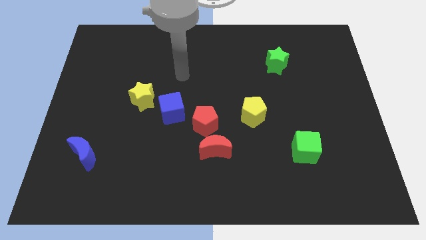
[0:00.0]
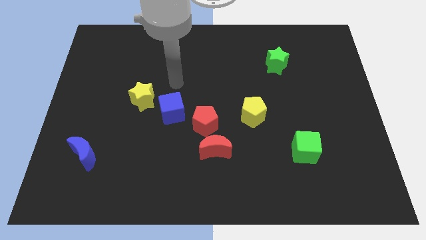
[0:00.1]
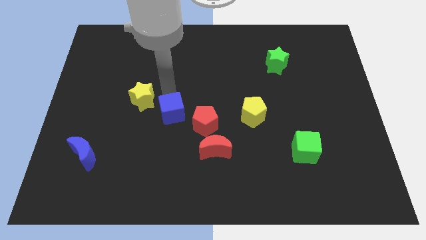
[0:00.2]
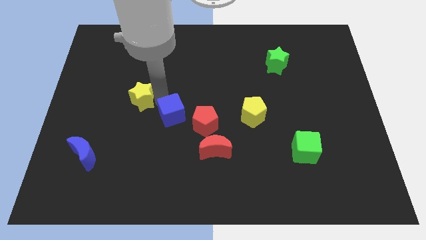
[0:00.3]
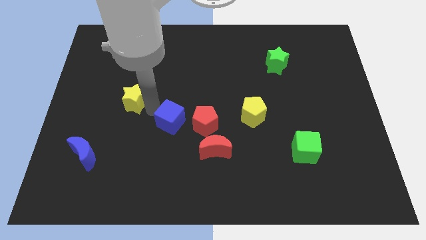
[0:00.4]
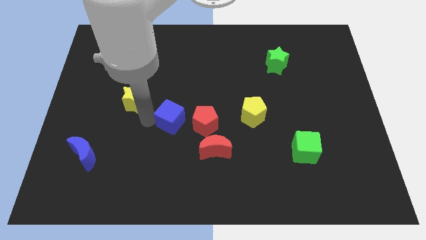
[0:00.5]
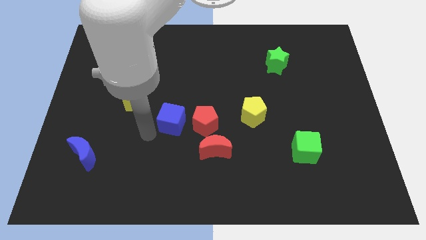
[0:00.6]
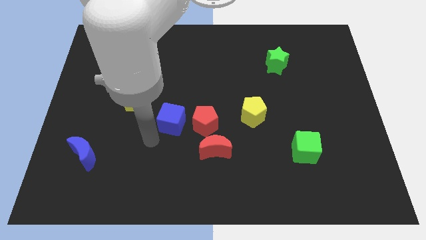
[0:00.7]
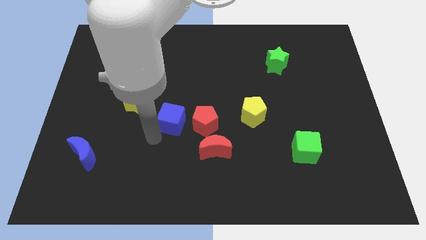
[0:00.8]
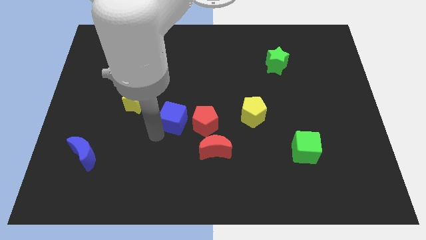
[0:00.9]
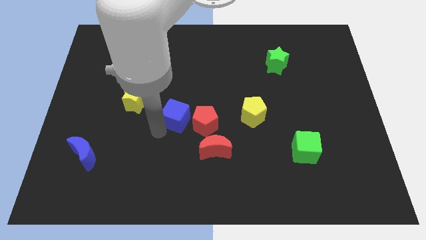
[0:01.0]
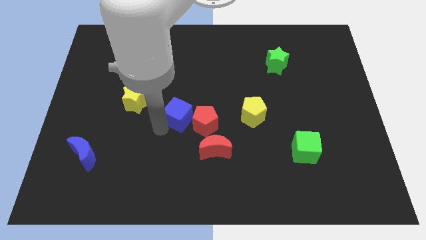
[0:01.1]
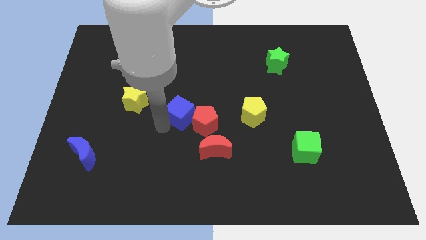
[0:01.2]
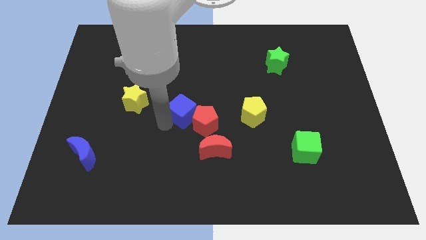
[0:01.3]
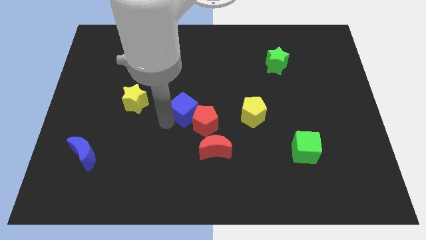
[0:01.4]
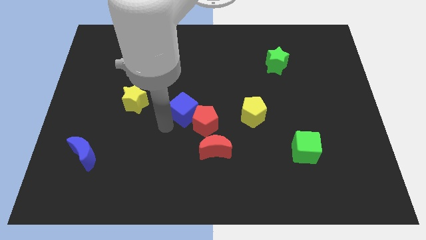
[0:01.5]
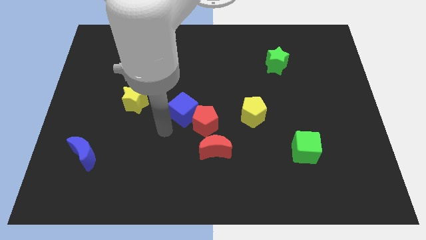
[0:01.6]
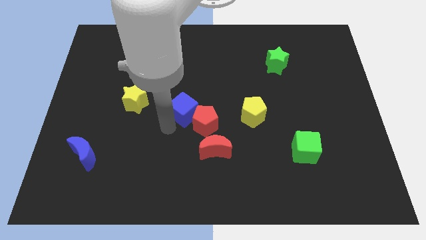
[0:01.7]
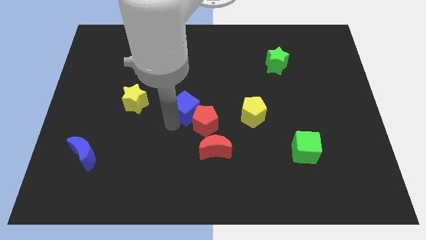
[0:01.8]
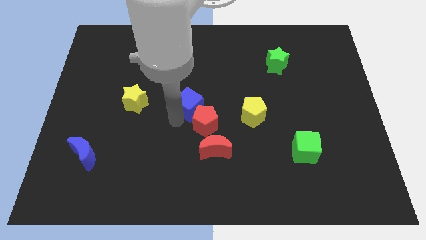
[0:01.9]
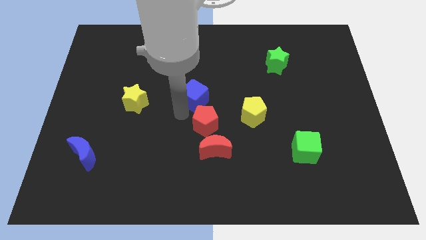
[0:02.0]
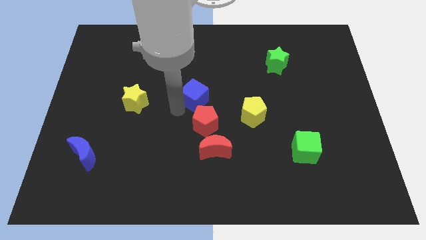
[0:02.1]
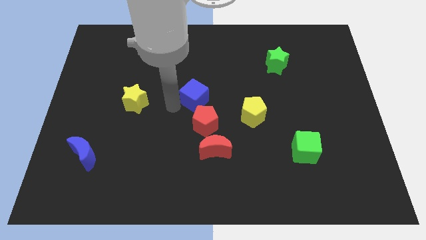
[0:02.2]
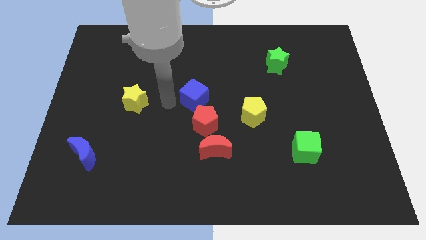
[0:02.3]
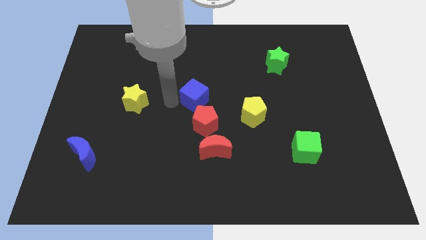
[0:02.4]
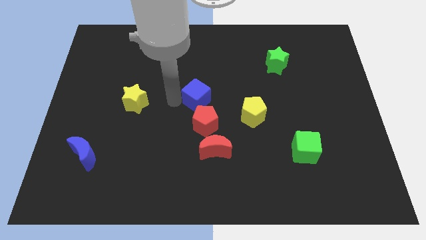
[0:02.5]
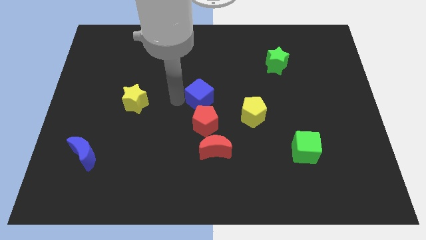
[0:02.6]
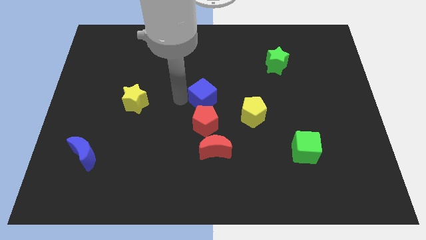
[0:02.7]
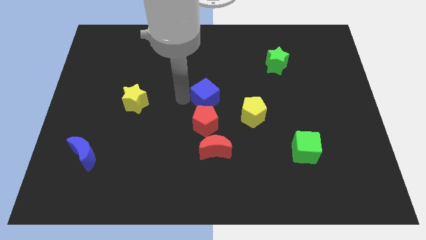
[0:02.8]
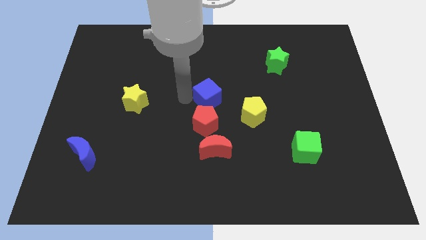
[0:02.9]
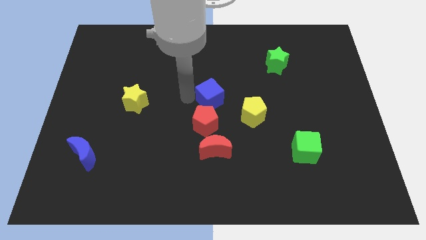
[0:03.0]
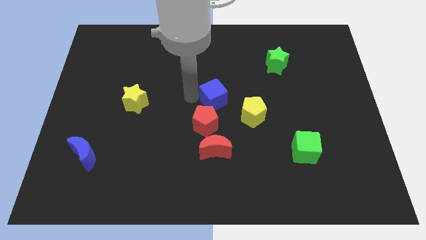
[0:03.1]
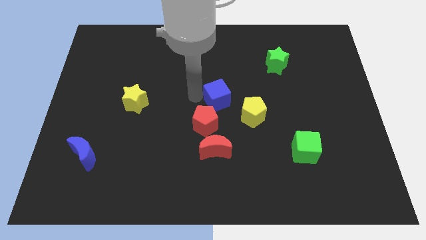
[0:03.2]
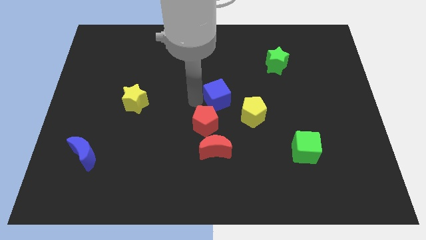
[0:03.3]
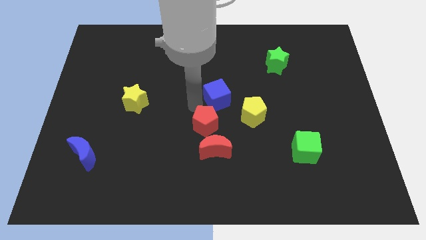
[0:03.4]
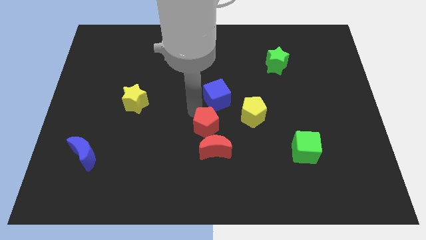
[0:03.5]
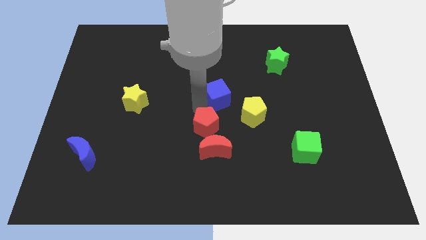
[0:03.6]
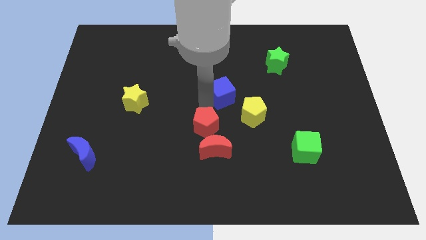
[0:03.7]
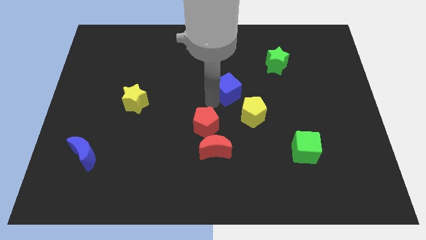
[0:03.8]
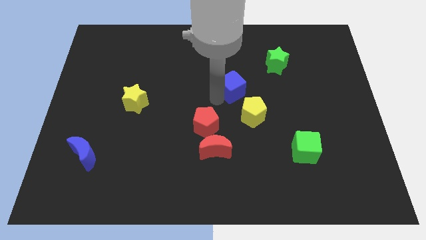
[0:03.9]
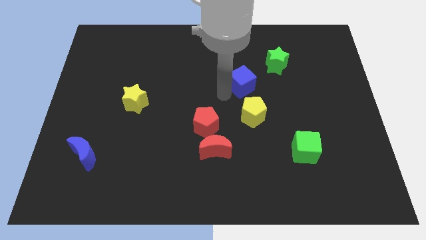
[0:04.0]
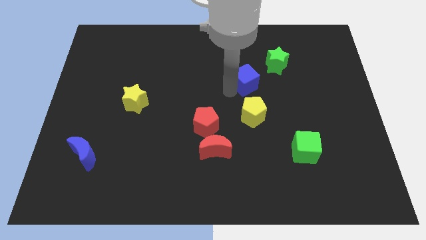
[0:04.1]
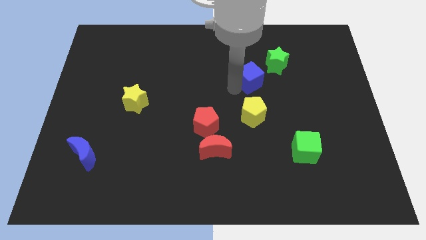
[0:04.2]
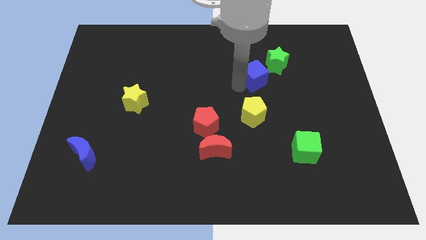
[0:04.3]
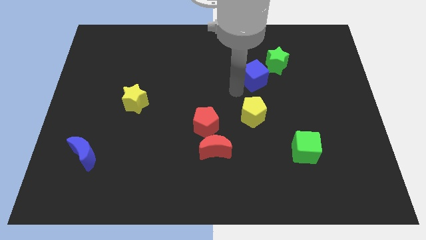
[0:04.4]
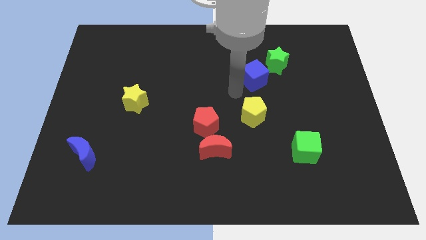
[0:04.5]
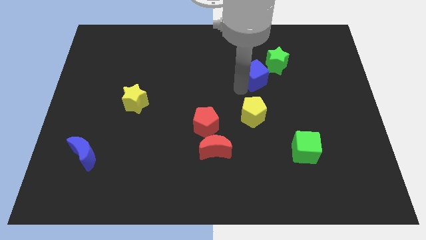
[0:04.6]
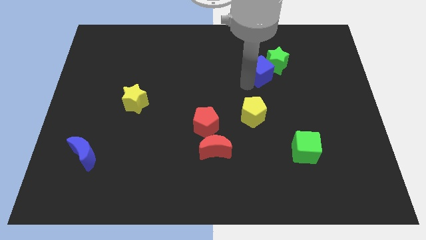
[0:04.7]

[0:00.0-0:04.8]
move the blue cube next to the green star

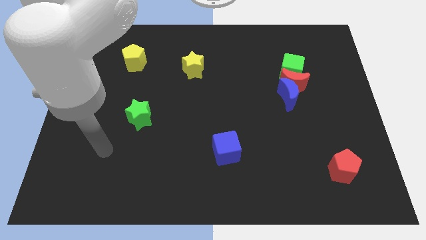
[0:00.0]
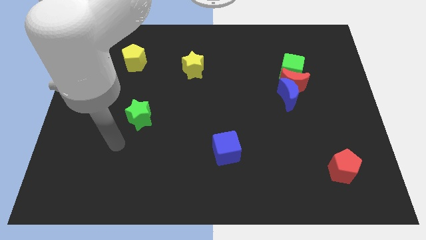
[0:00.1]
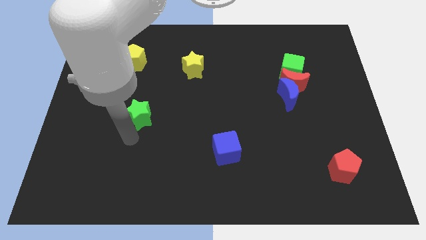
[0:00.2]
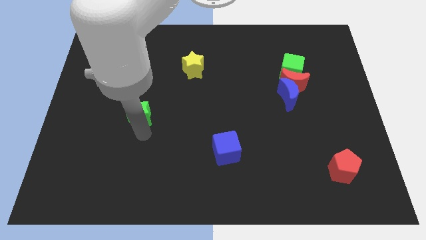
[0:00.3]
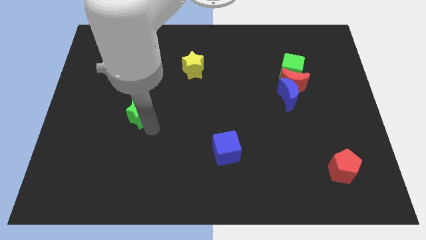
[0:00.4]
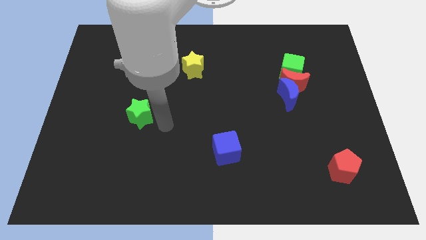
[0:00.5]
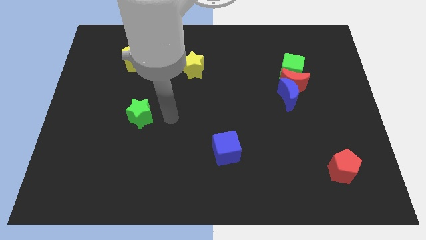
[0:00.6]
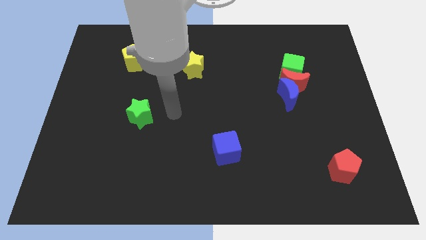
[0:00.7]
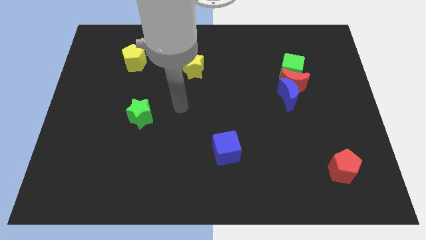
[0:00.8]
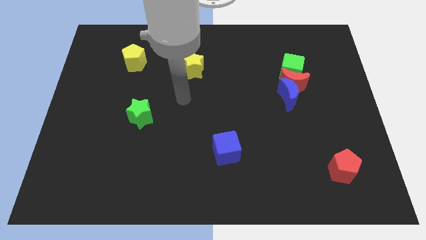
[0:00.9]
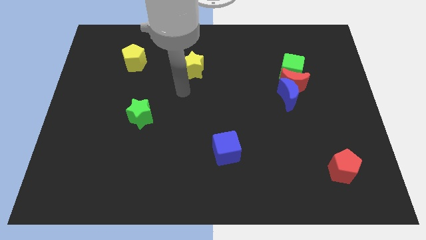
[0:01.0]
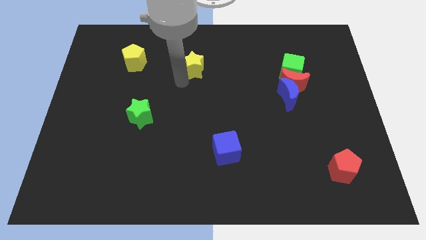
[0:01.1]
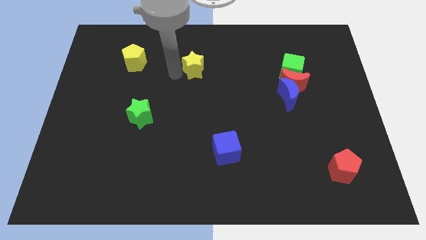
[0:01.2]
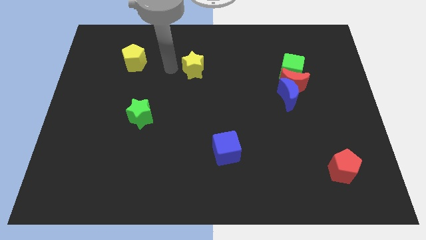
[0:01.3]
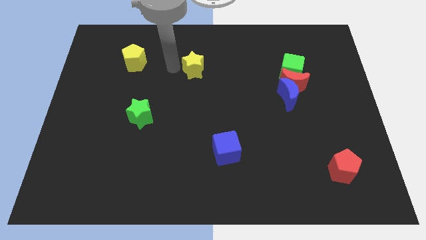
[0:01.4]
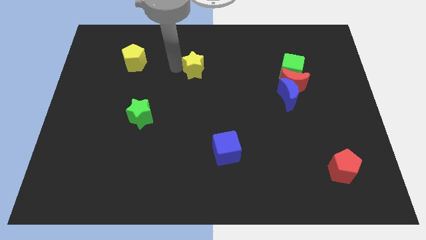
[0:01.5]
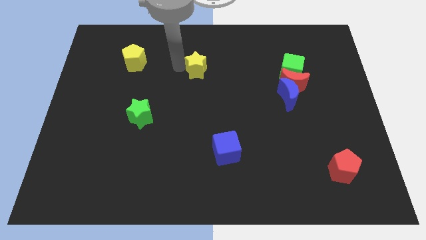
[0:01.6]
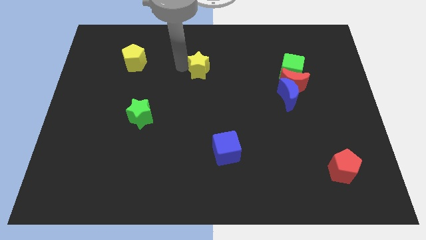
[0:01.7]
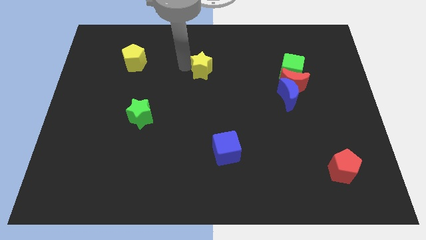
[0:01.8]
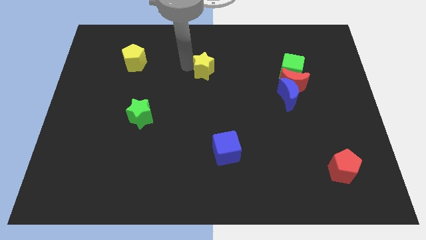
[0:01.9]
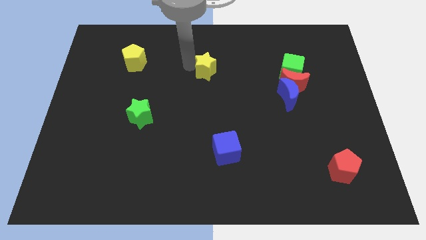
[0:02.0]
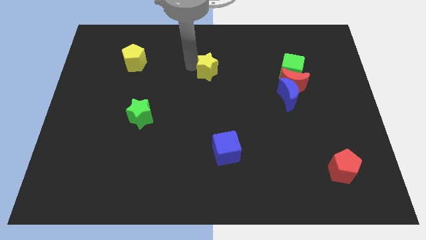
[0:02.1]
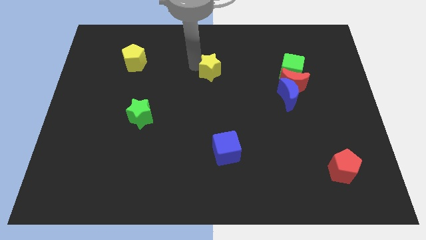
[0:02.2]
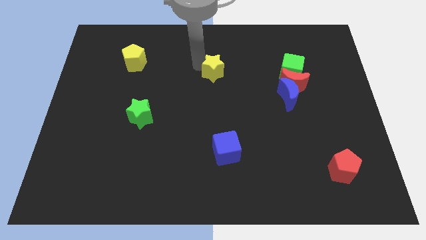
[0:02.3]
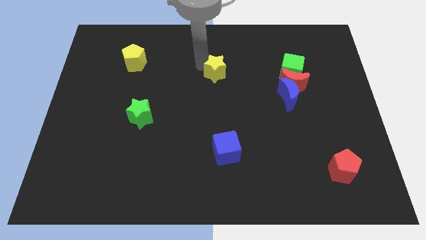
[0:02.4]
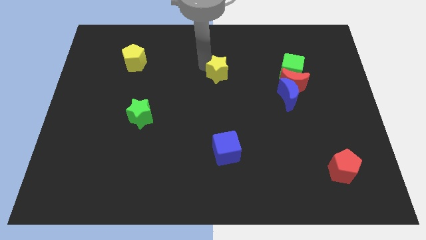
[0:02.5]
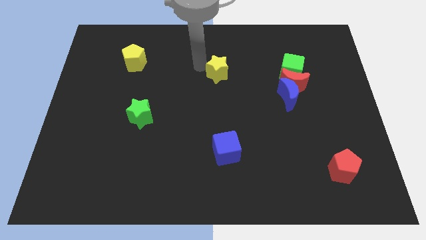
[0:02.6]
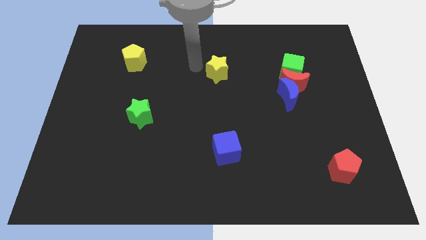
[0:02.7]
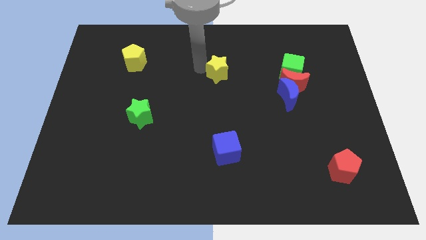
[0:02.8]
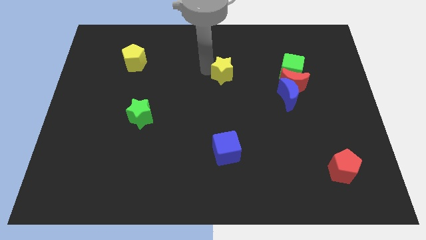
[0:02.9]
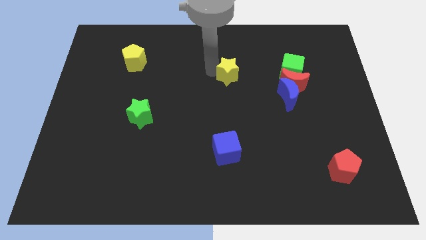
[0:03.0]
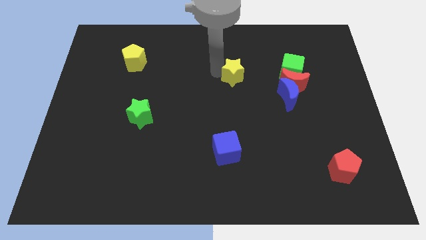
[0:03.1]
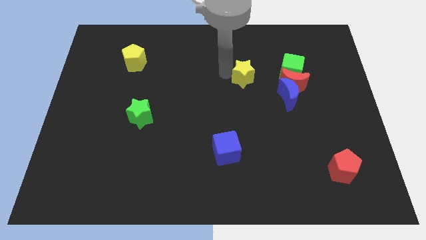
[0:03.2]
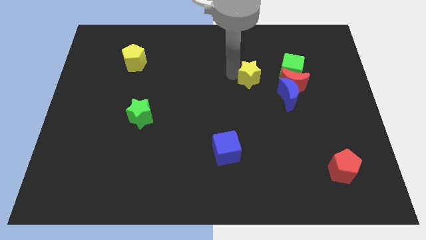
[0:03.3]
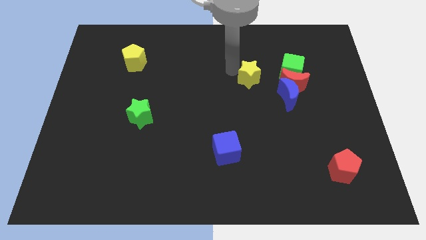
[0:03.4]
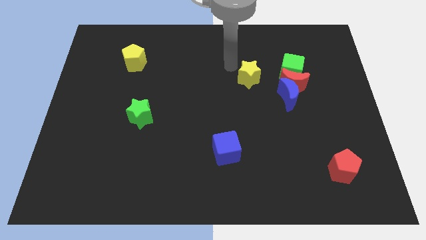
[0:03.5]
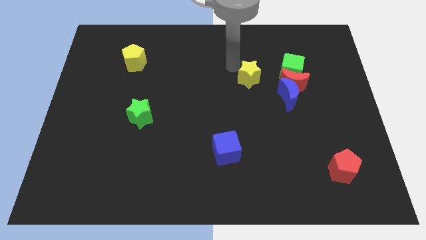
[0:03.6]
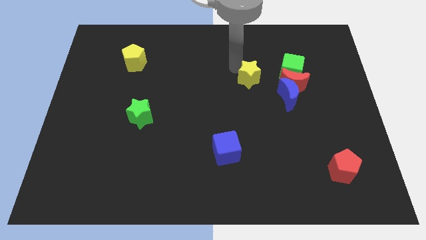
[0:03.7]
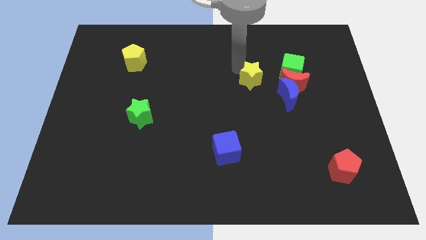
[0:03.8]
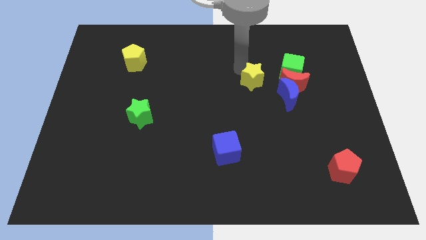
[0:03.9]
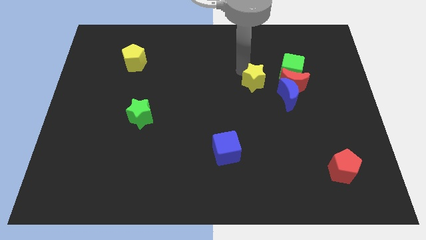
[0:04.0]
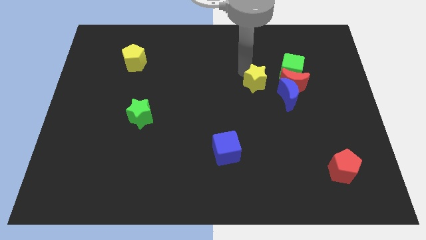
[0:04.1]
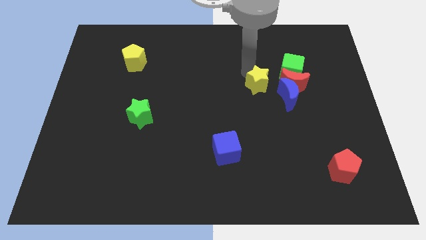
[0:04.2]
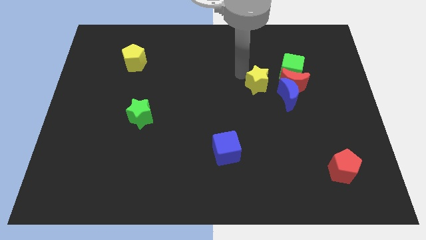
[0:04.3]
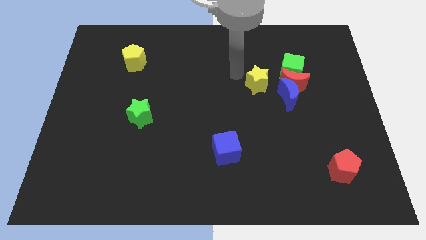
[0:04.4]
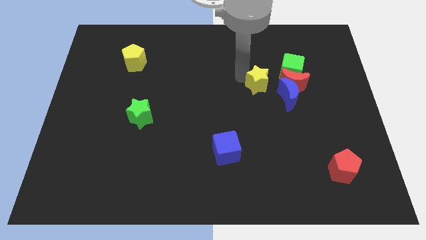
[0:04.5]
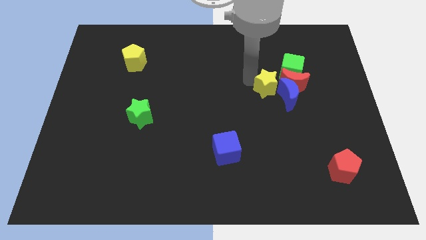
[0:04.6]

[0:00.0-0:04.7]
put the yellow star next to the blue moon
